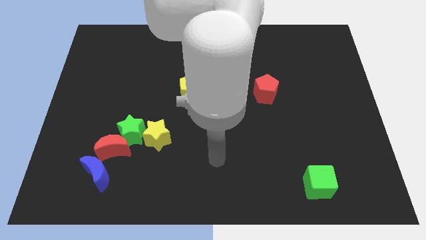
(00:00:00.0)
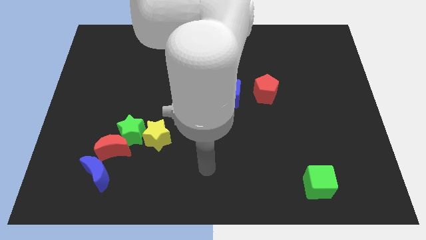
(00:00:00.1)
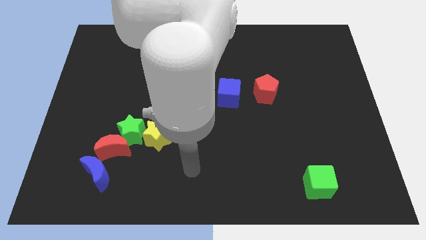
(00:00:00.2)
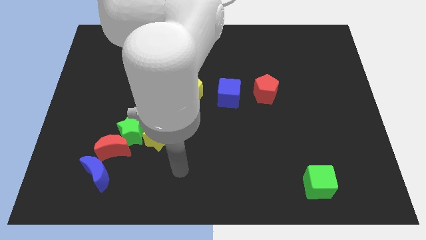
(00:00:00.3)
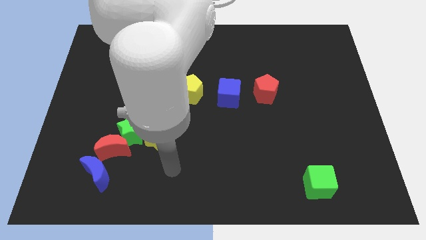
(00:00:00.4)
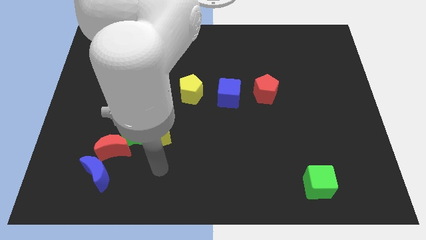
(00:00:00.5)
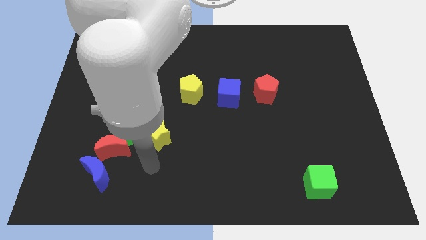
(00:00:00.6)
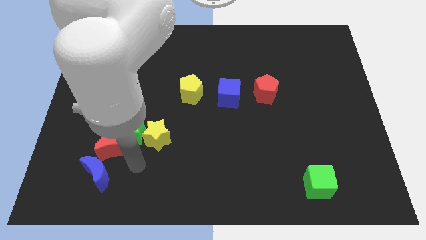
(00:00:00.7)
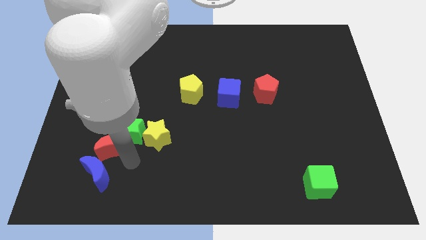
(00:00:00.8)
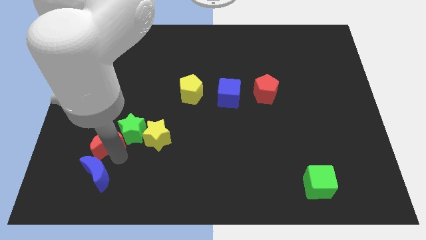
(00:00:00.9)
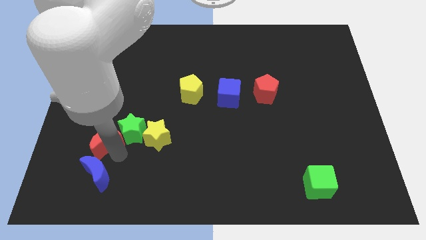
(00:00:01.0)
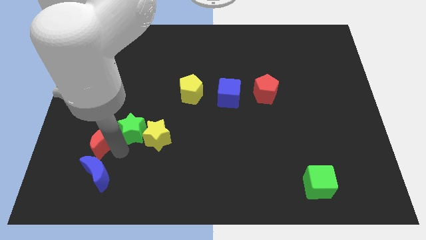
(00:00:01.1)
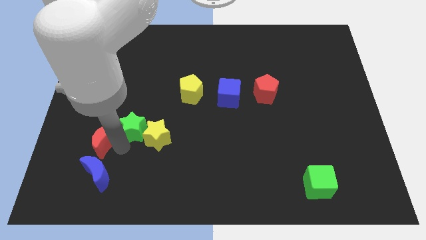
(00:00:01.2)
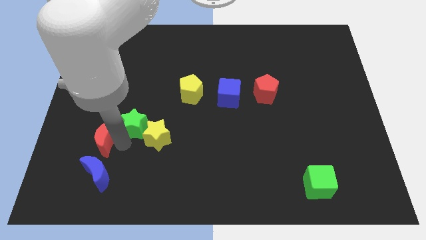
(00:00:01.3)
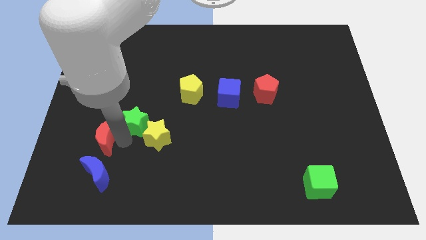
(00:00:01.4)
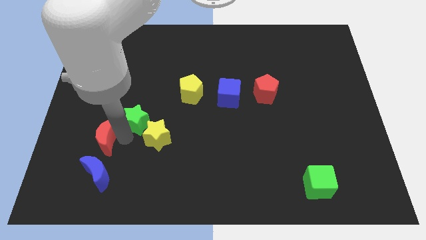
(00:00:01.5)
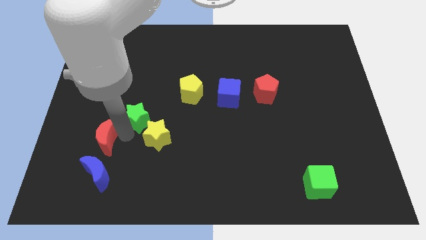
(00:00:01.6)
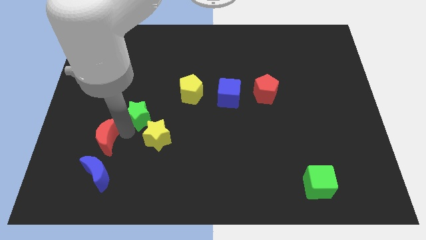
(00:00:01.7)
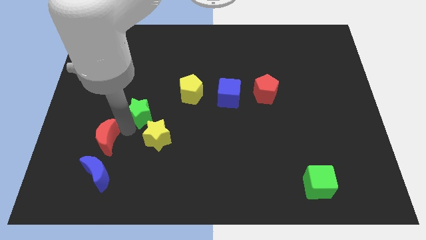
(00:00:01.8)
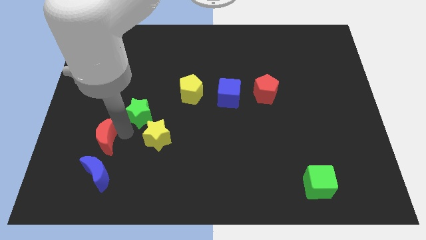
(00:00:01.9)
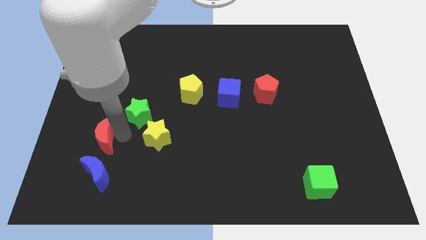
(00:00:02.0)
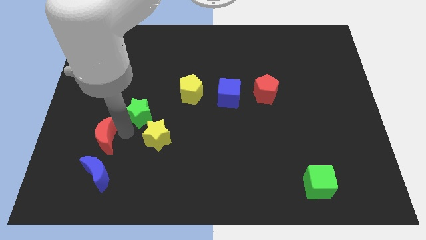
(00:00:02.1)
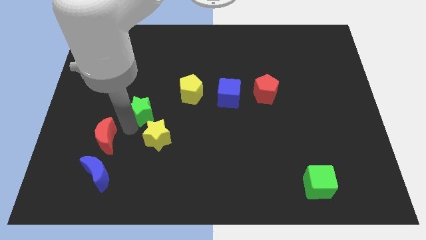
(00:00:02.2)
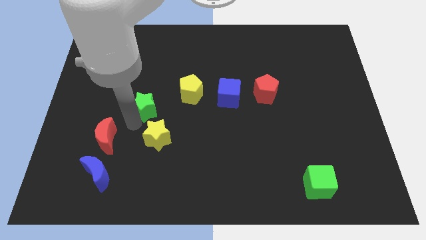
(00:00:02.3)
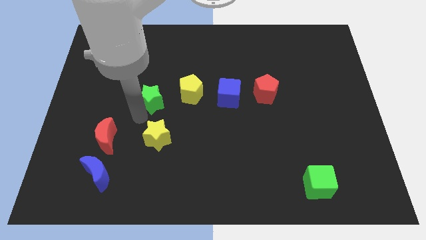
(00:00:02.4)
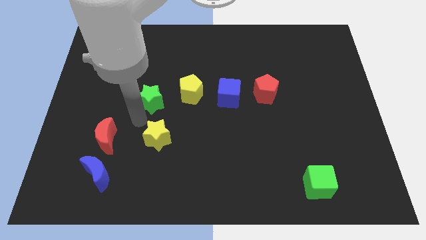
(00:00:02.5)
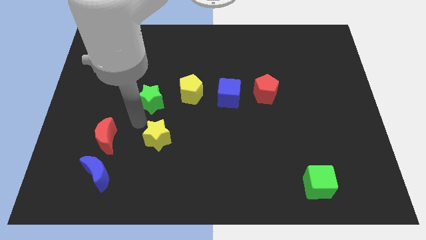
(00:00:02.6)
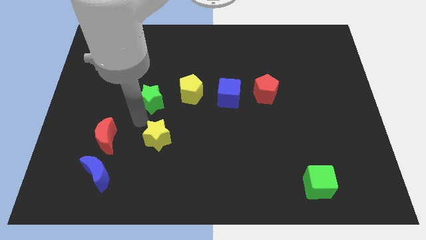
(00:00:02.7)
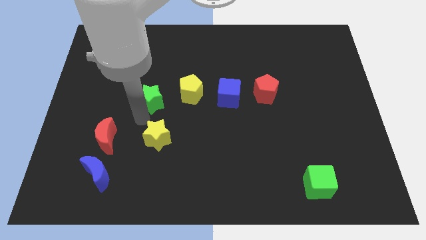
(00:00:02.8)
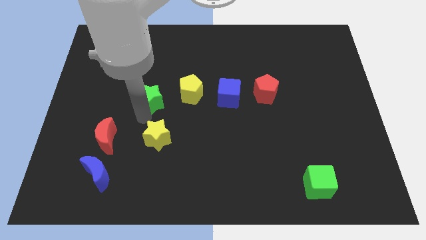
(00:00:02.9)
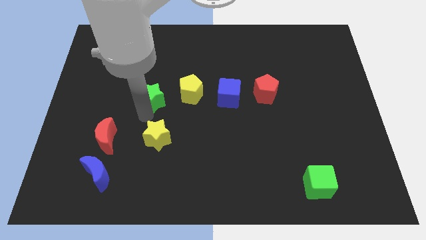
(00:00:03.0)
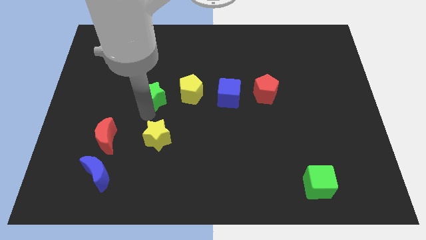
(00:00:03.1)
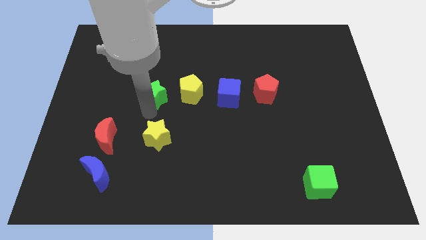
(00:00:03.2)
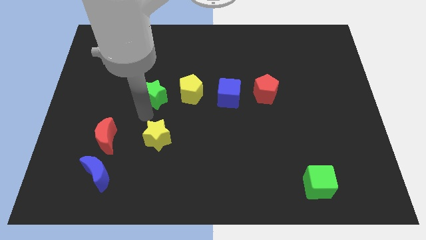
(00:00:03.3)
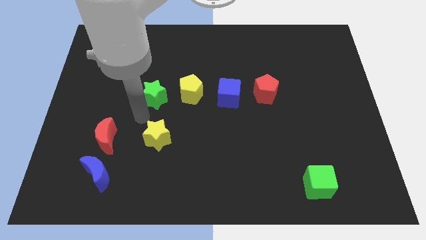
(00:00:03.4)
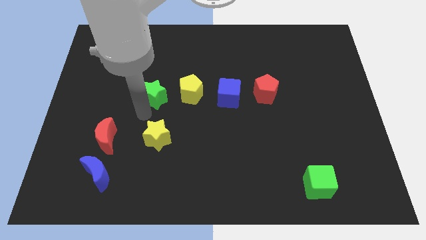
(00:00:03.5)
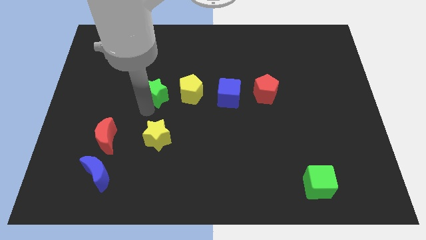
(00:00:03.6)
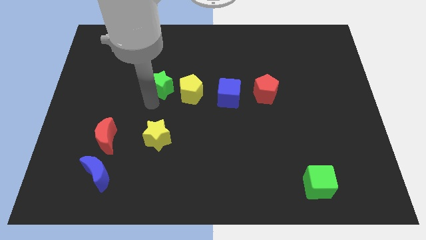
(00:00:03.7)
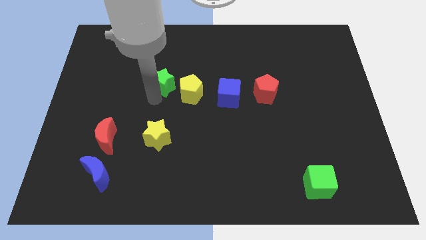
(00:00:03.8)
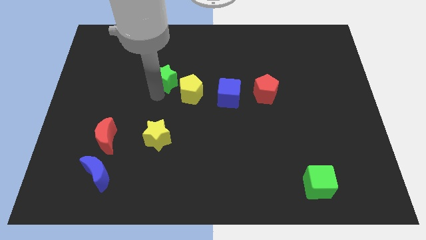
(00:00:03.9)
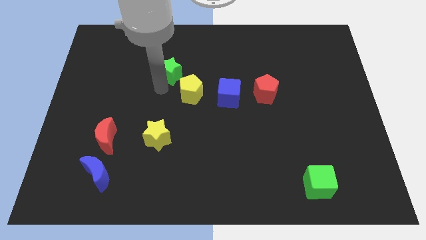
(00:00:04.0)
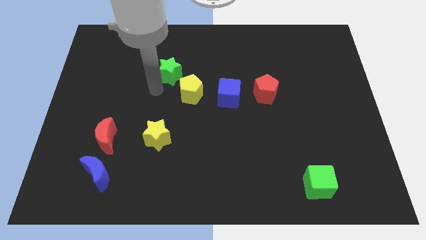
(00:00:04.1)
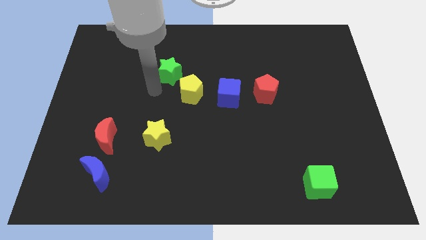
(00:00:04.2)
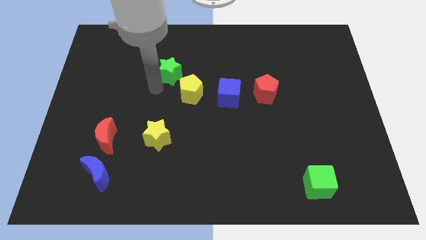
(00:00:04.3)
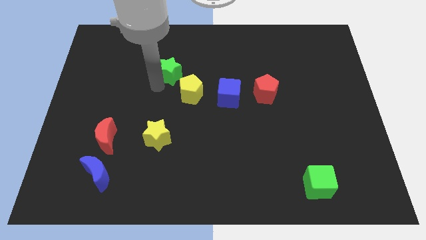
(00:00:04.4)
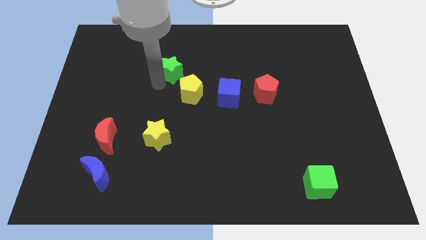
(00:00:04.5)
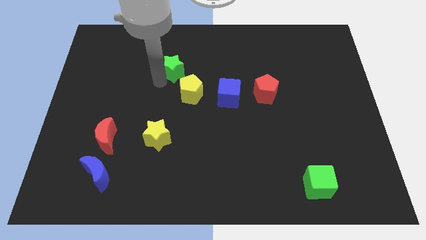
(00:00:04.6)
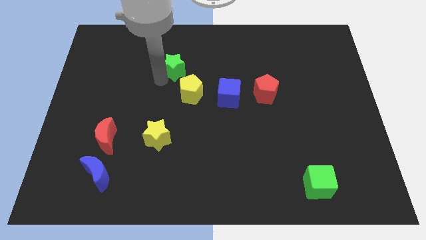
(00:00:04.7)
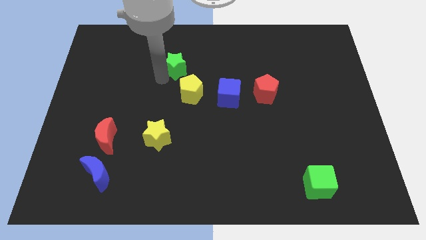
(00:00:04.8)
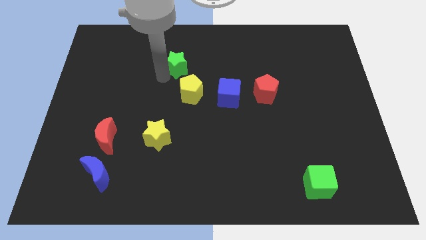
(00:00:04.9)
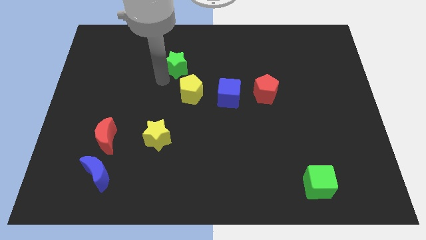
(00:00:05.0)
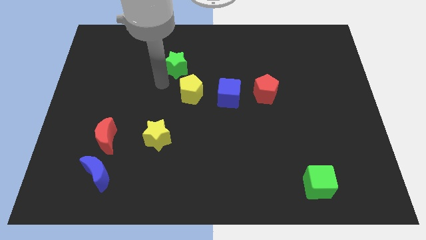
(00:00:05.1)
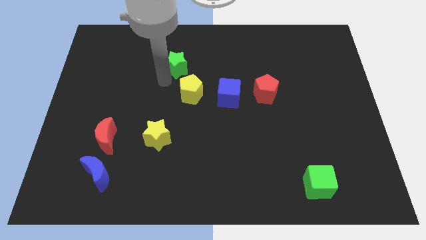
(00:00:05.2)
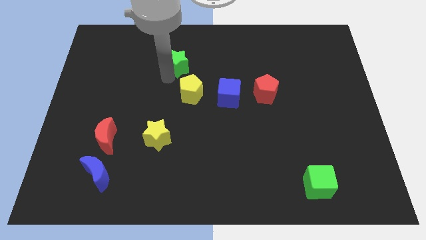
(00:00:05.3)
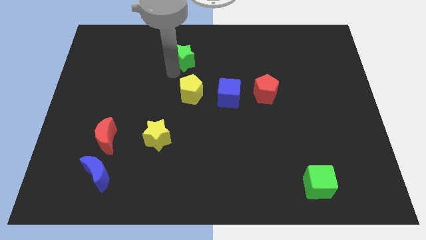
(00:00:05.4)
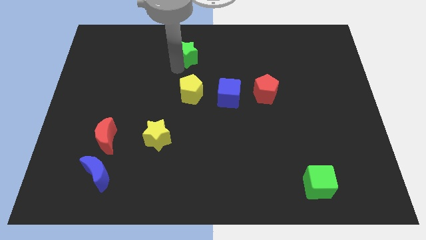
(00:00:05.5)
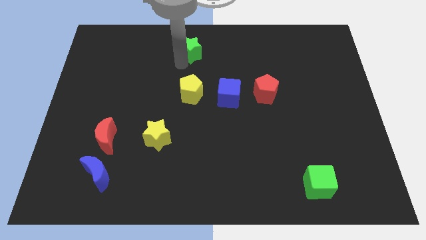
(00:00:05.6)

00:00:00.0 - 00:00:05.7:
put the green star to the top side

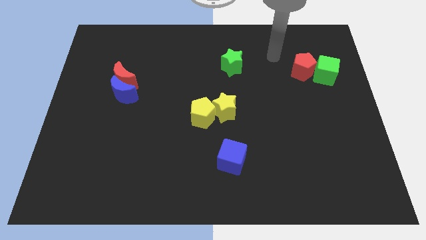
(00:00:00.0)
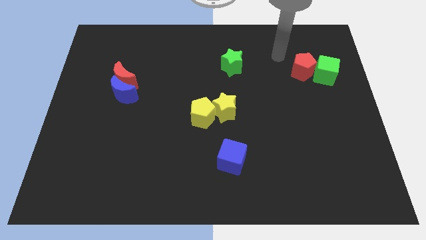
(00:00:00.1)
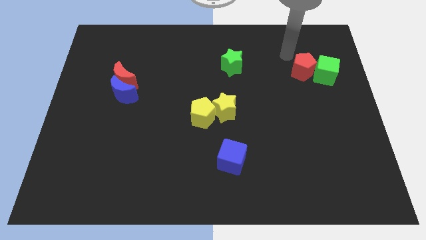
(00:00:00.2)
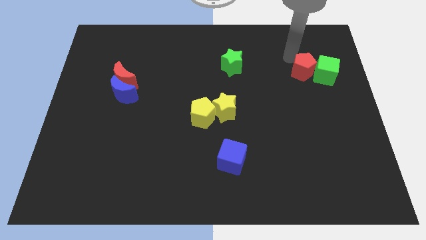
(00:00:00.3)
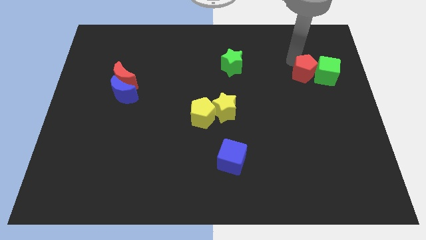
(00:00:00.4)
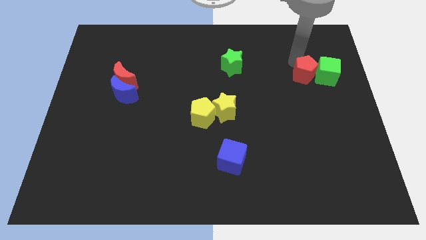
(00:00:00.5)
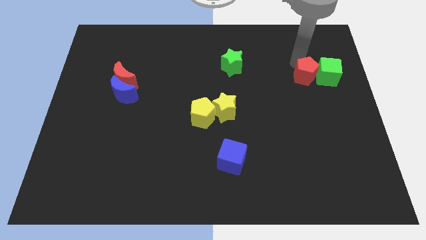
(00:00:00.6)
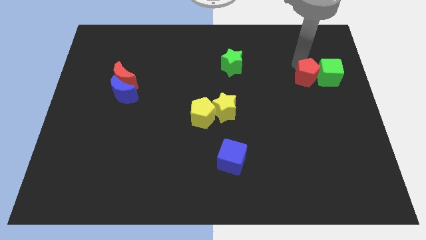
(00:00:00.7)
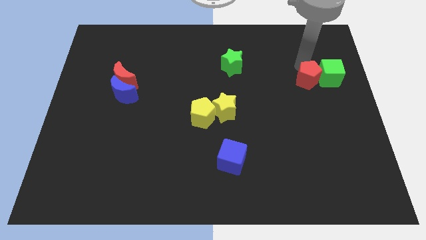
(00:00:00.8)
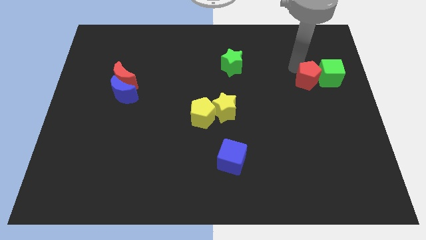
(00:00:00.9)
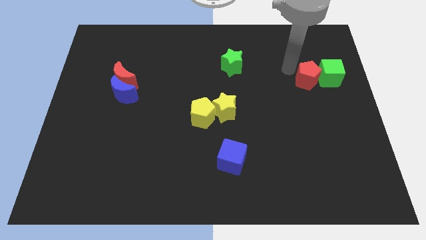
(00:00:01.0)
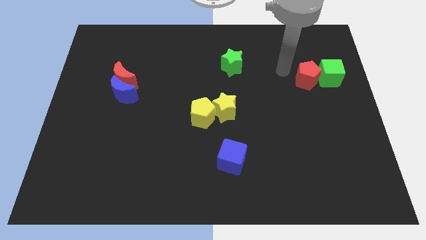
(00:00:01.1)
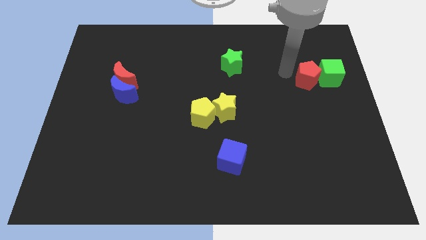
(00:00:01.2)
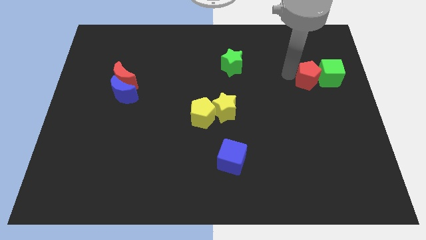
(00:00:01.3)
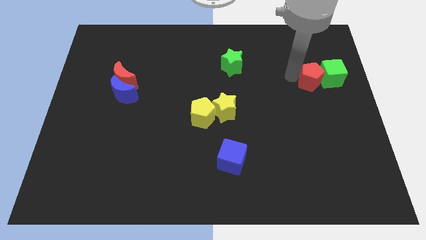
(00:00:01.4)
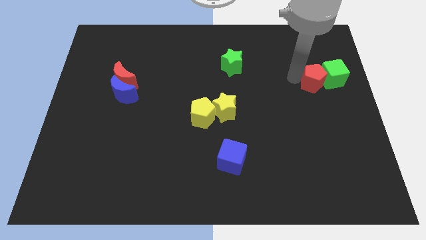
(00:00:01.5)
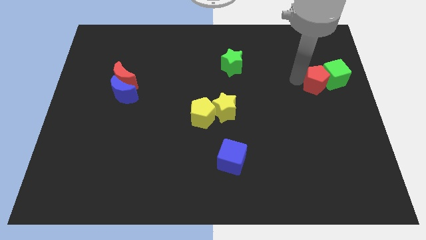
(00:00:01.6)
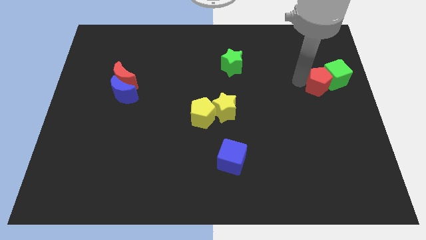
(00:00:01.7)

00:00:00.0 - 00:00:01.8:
put the red pentagon to the right side
